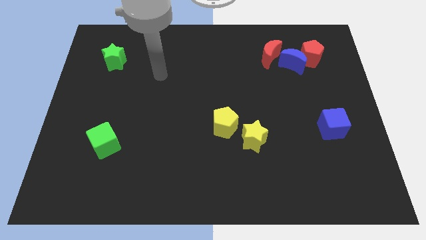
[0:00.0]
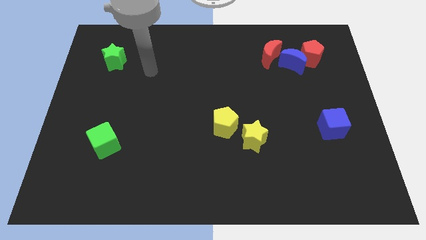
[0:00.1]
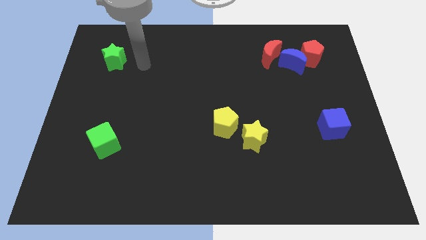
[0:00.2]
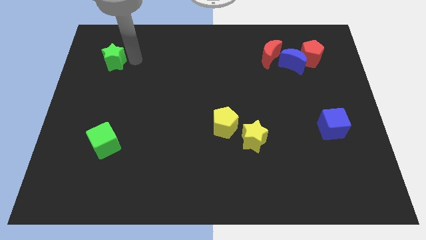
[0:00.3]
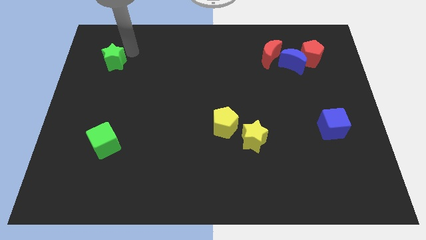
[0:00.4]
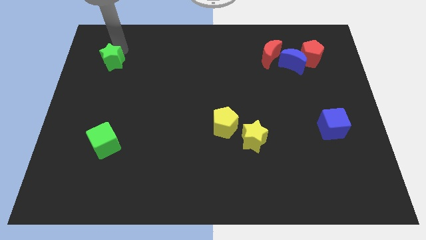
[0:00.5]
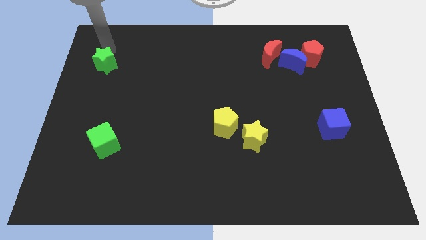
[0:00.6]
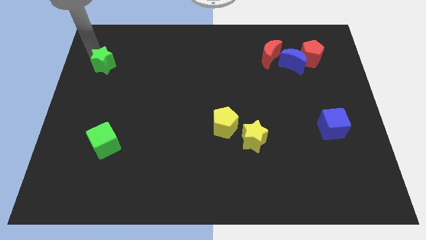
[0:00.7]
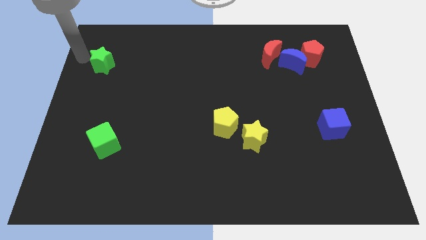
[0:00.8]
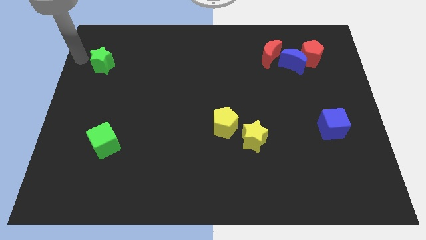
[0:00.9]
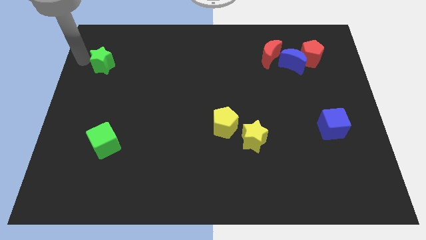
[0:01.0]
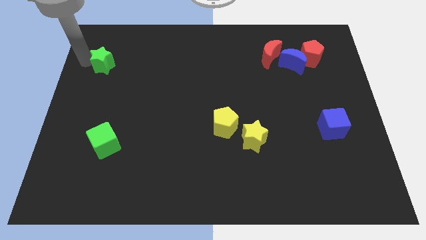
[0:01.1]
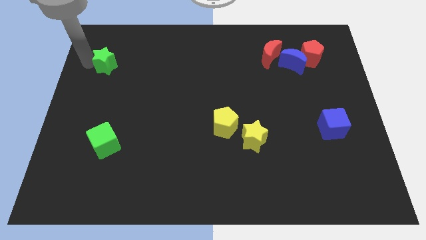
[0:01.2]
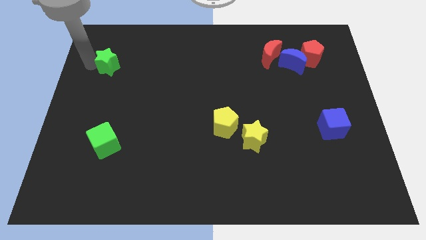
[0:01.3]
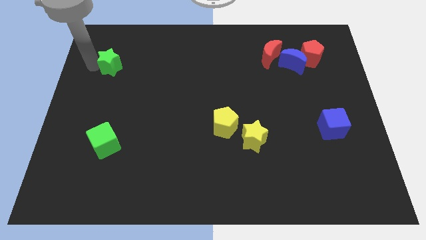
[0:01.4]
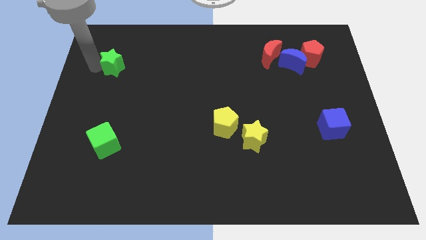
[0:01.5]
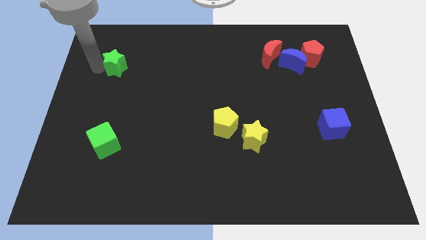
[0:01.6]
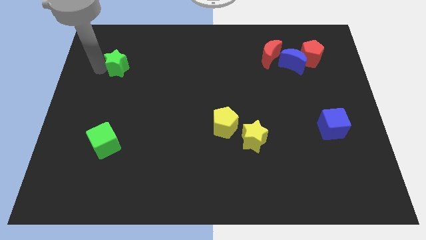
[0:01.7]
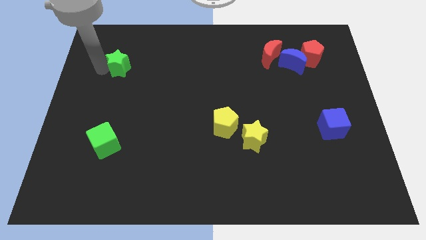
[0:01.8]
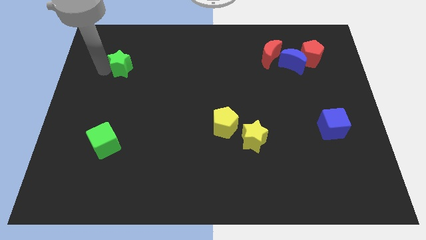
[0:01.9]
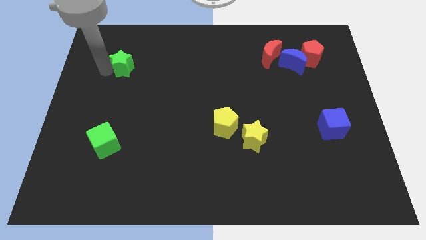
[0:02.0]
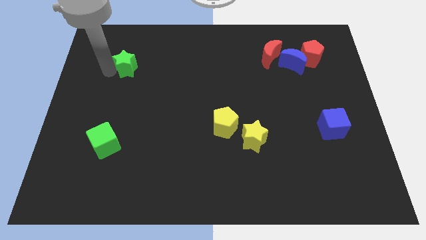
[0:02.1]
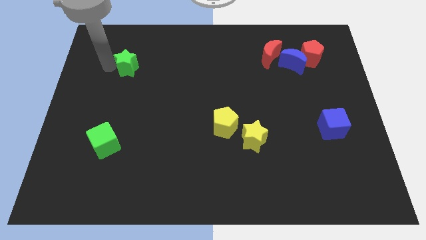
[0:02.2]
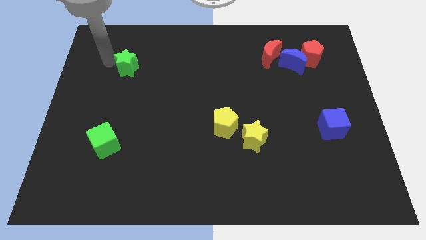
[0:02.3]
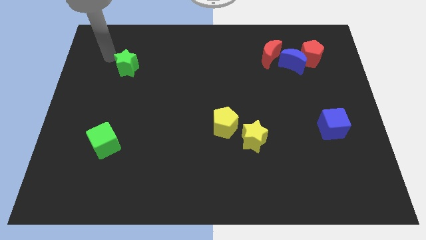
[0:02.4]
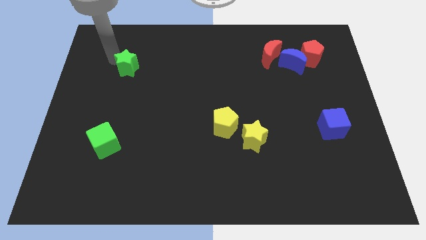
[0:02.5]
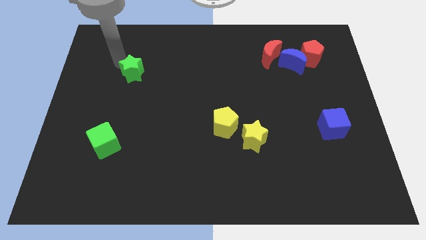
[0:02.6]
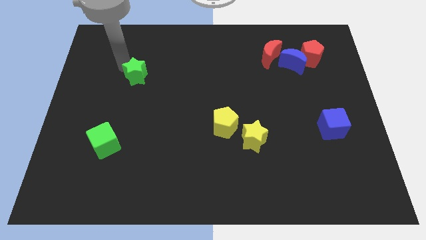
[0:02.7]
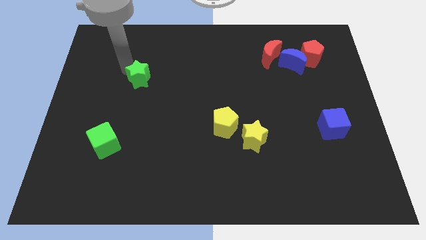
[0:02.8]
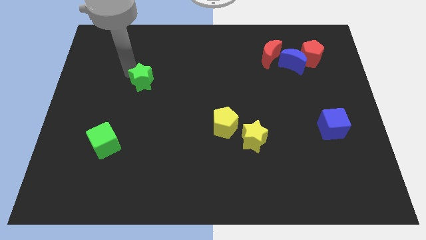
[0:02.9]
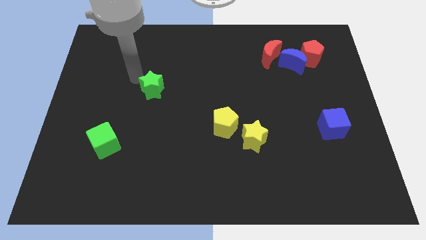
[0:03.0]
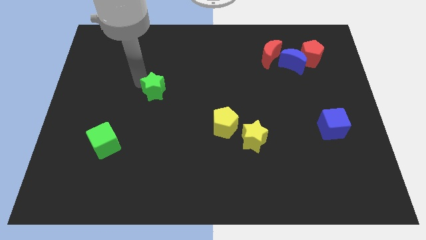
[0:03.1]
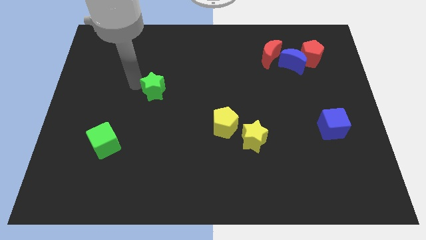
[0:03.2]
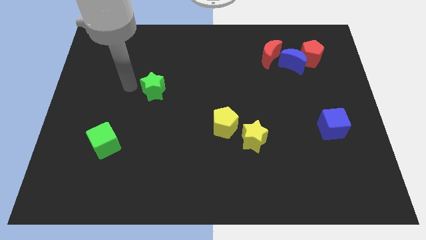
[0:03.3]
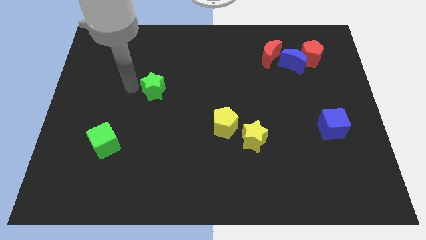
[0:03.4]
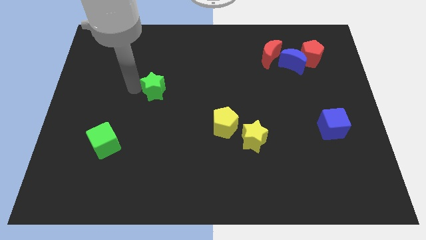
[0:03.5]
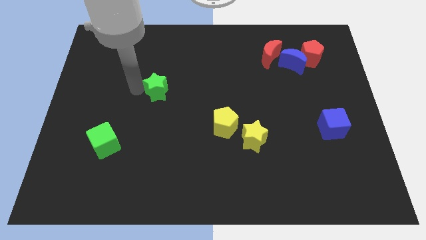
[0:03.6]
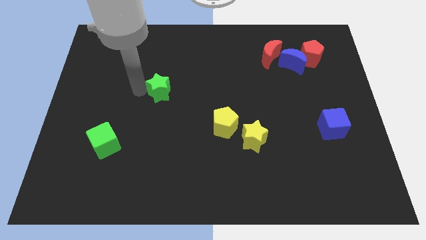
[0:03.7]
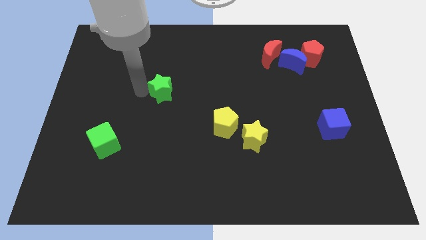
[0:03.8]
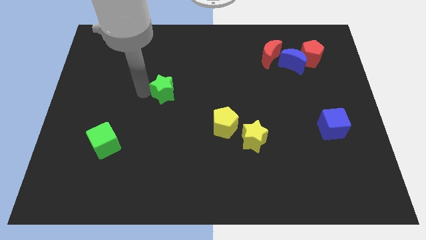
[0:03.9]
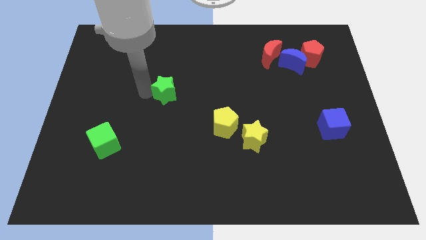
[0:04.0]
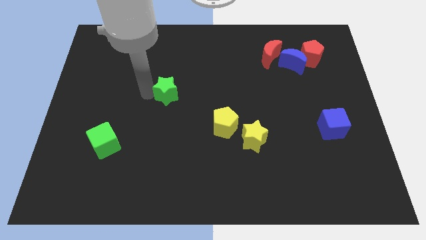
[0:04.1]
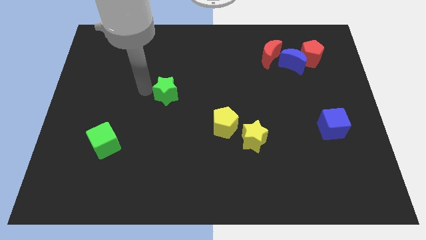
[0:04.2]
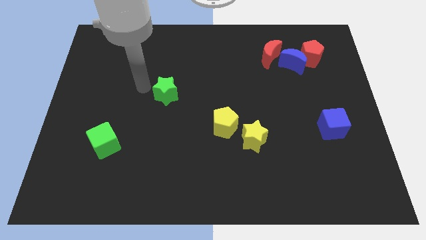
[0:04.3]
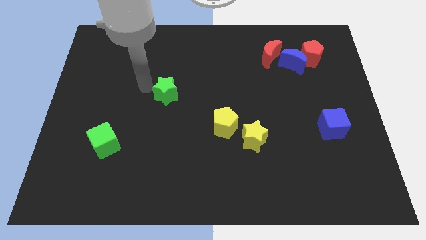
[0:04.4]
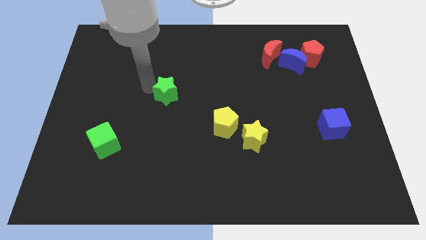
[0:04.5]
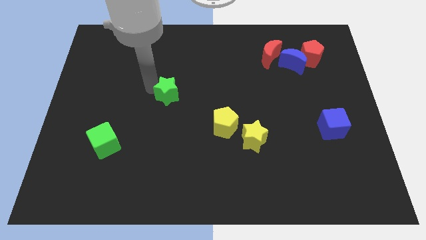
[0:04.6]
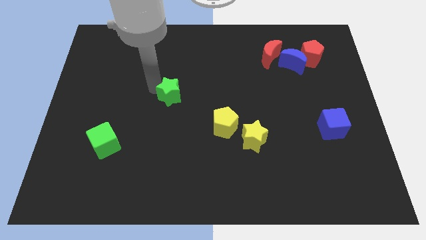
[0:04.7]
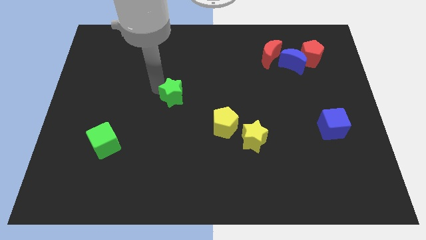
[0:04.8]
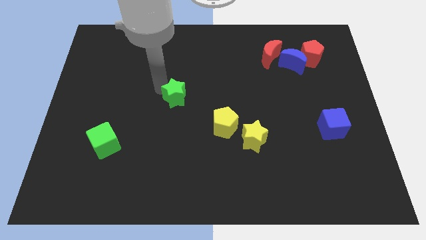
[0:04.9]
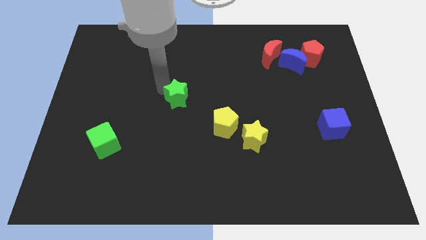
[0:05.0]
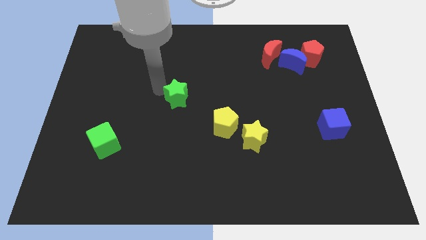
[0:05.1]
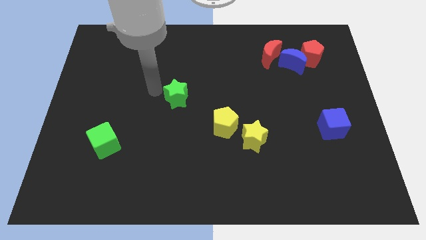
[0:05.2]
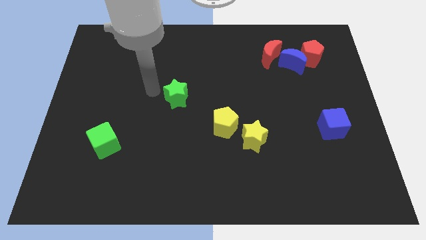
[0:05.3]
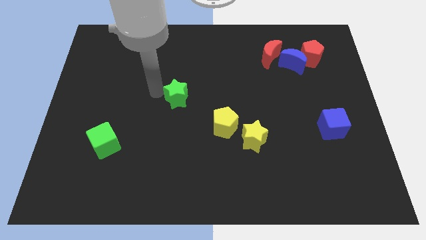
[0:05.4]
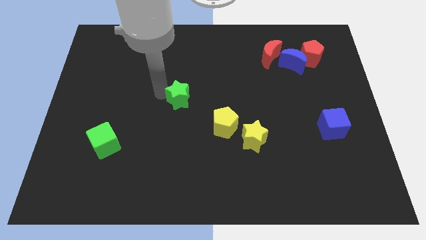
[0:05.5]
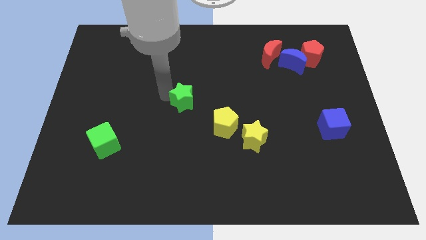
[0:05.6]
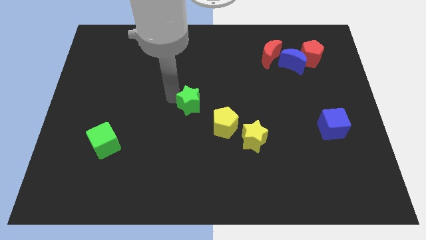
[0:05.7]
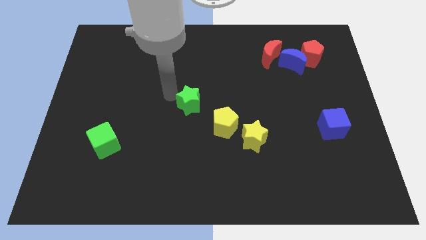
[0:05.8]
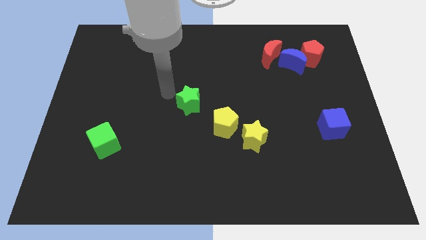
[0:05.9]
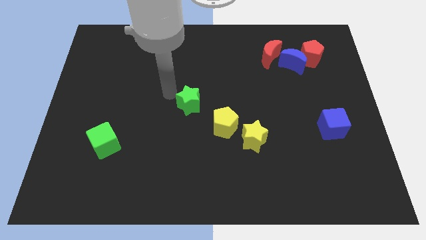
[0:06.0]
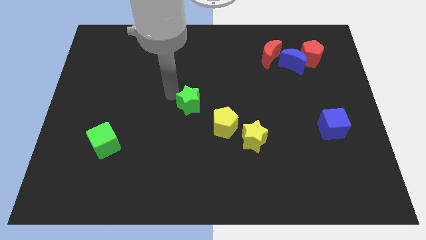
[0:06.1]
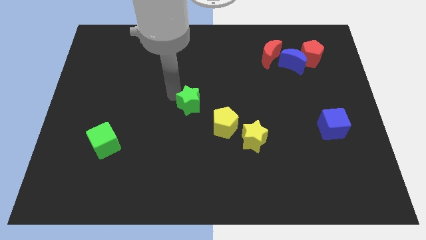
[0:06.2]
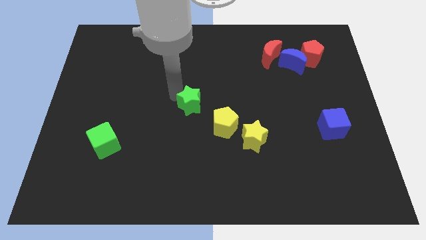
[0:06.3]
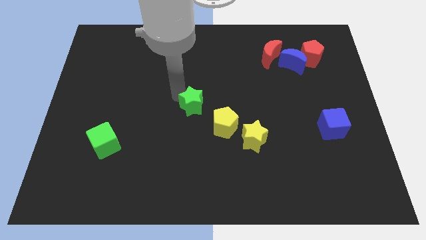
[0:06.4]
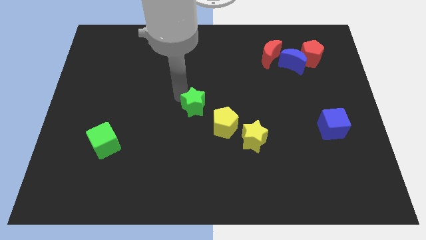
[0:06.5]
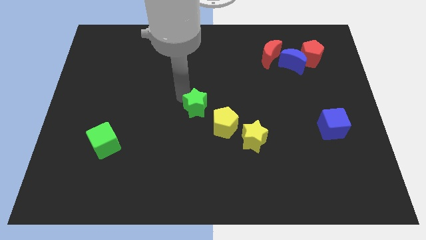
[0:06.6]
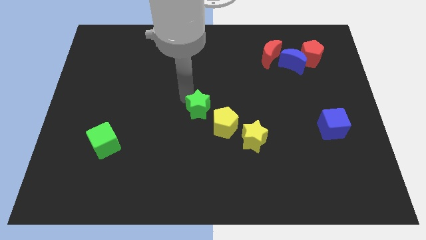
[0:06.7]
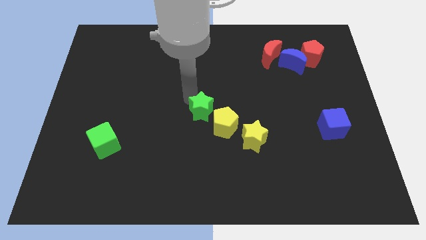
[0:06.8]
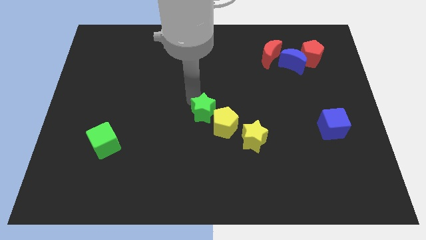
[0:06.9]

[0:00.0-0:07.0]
push the green star close to the yellow pentagon

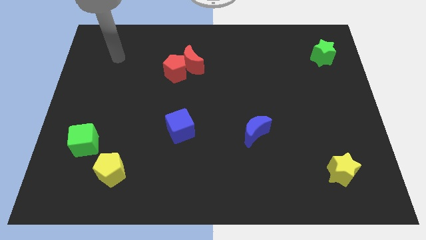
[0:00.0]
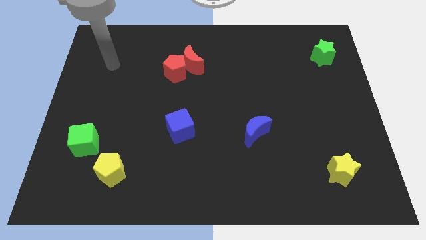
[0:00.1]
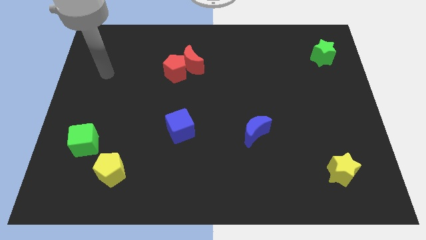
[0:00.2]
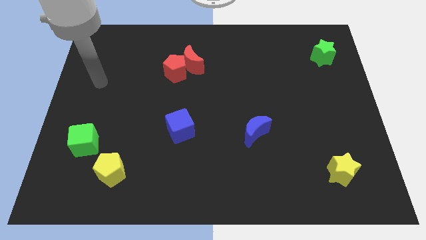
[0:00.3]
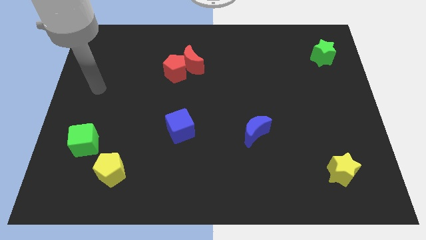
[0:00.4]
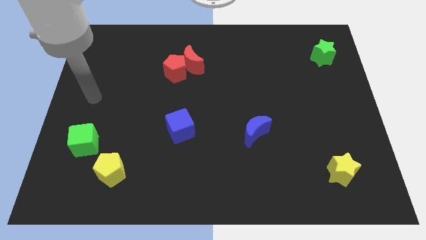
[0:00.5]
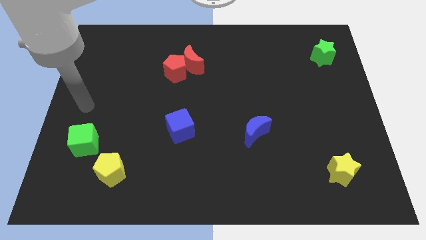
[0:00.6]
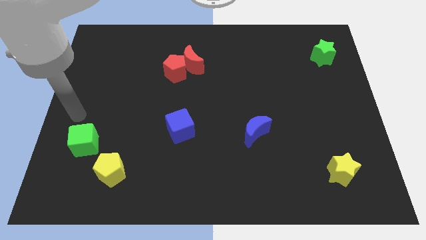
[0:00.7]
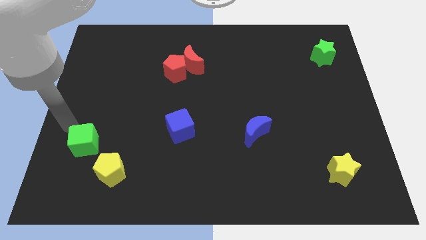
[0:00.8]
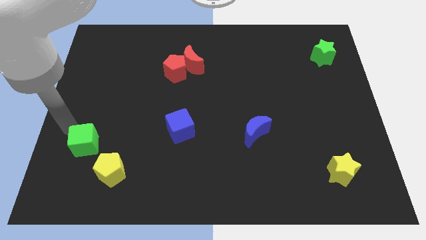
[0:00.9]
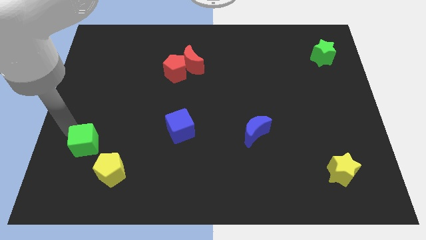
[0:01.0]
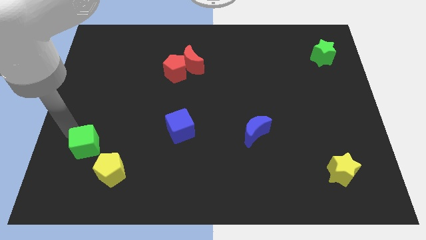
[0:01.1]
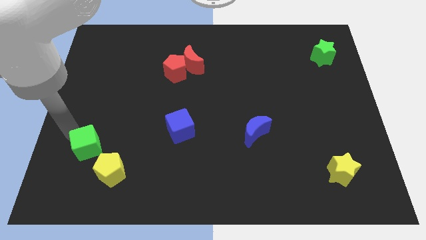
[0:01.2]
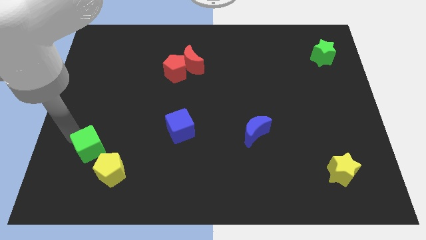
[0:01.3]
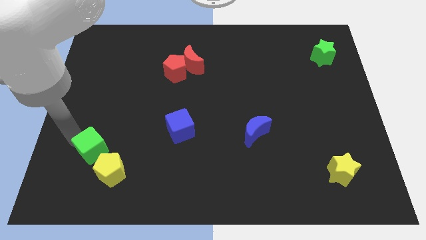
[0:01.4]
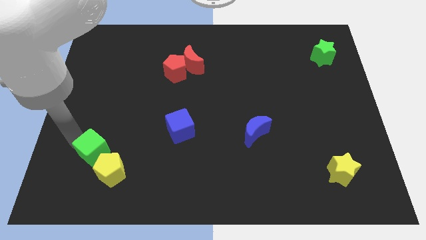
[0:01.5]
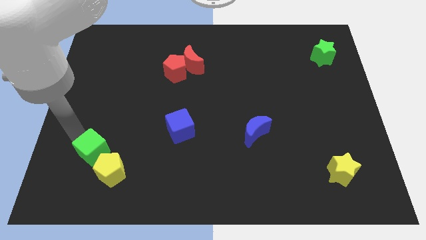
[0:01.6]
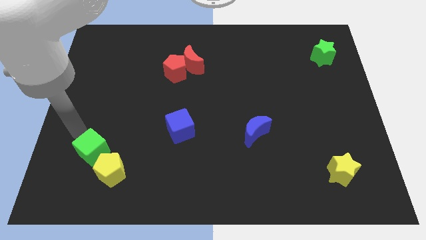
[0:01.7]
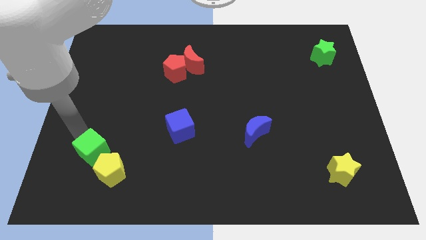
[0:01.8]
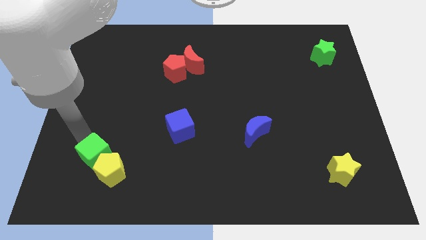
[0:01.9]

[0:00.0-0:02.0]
push the green cube towards the yellow pentagon
